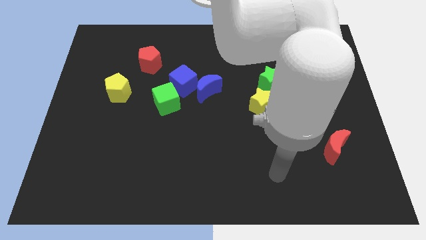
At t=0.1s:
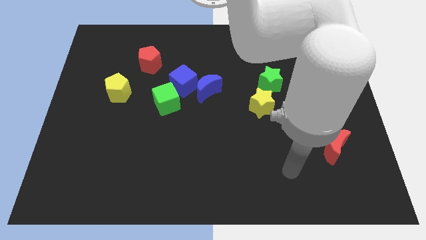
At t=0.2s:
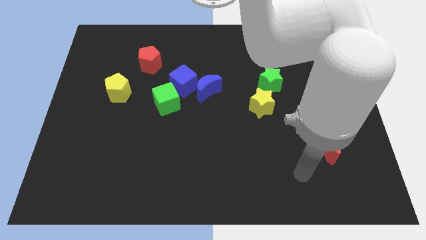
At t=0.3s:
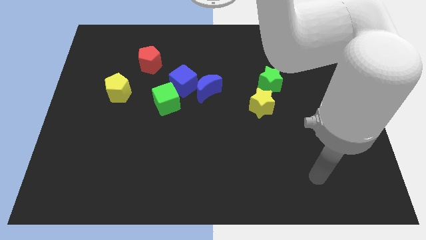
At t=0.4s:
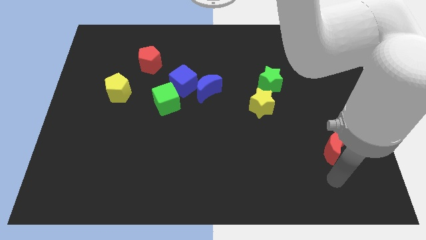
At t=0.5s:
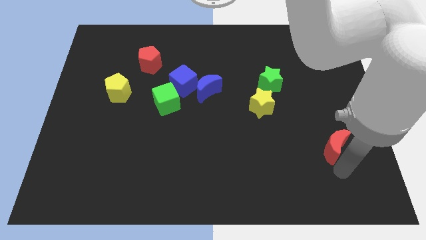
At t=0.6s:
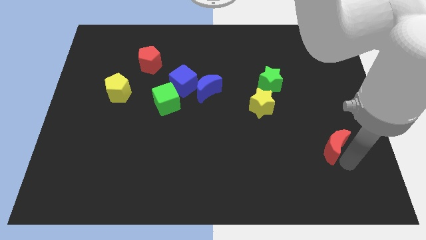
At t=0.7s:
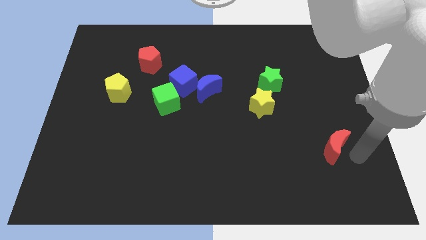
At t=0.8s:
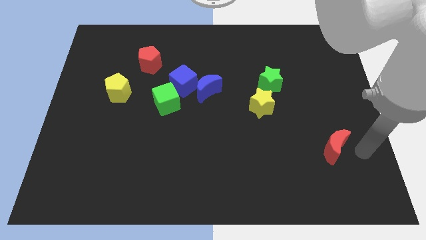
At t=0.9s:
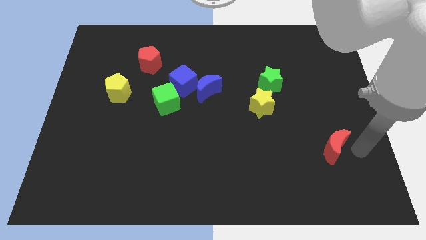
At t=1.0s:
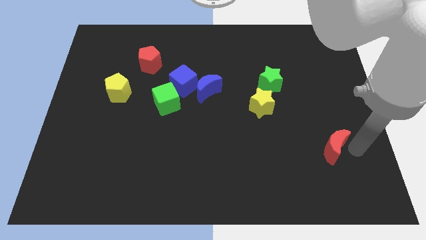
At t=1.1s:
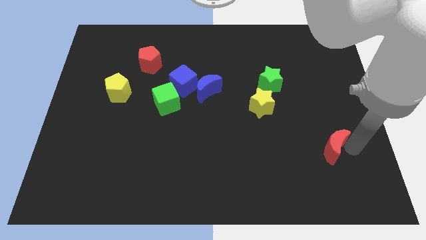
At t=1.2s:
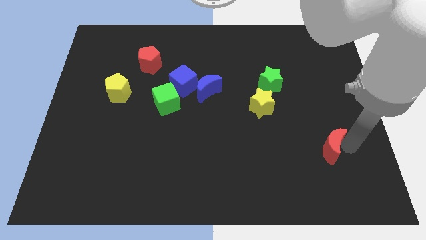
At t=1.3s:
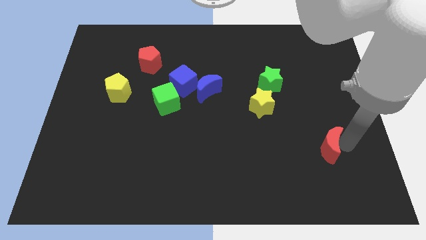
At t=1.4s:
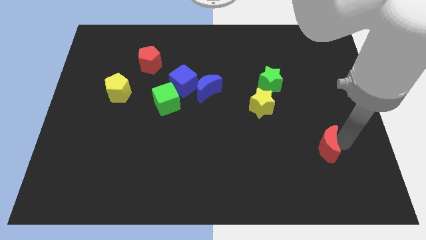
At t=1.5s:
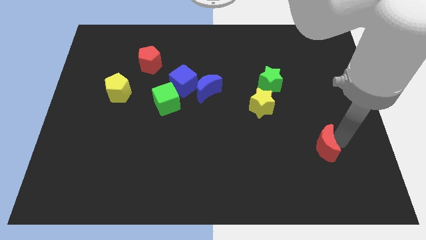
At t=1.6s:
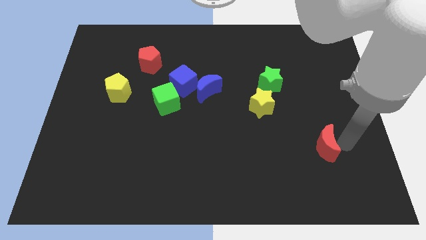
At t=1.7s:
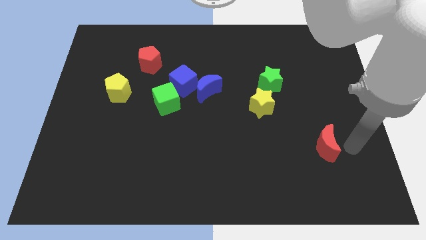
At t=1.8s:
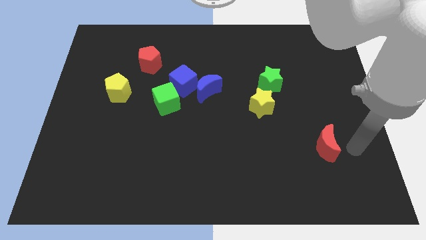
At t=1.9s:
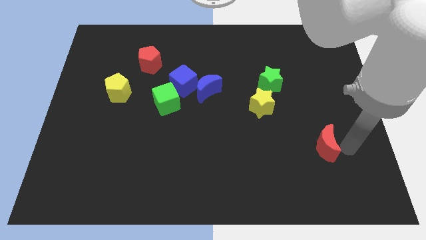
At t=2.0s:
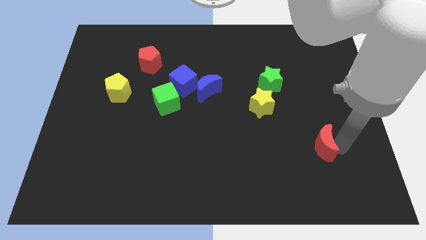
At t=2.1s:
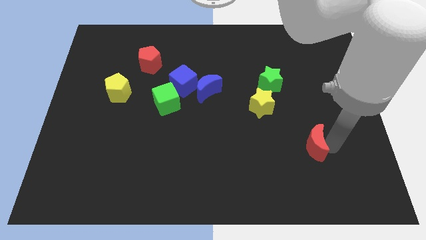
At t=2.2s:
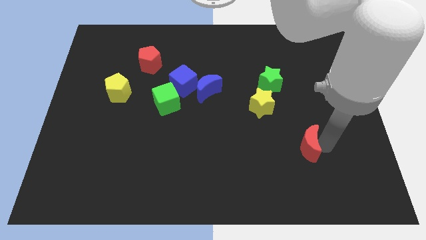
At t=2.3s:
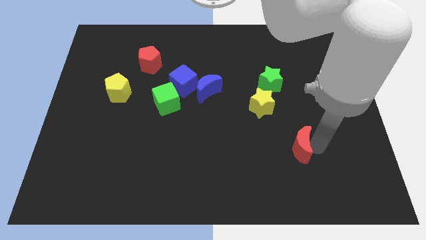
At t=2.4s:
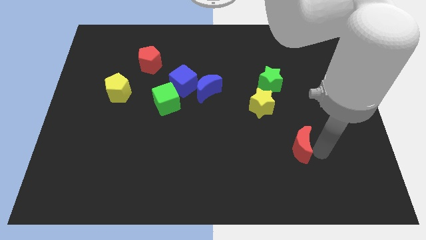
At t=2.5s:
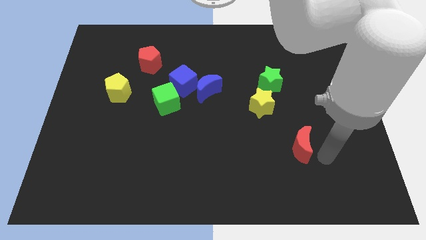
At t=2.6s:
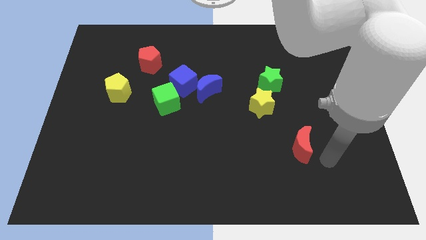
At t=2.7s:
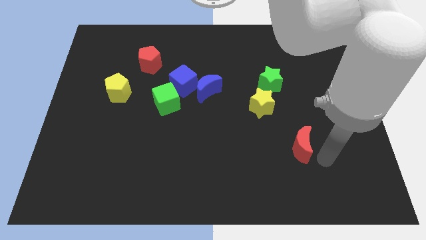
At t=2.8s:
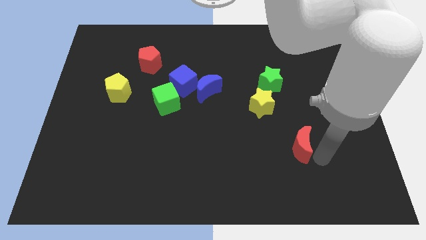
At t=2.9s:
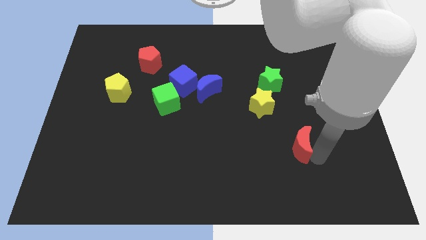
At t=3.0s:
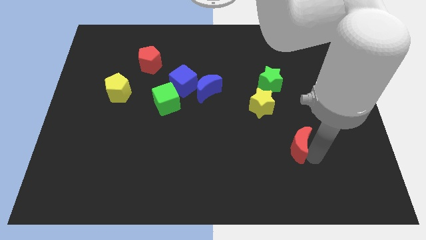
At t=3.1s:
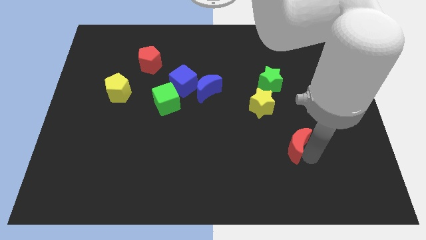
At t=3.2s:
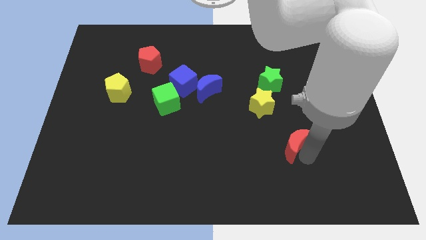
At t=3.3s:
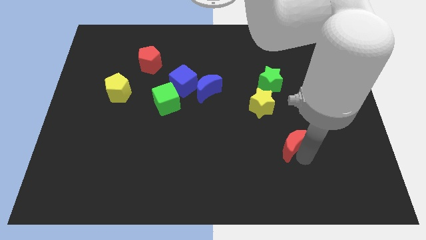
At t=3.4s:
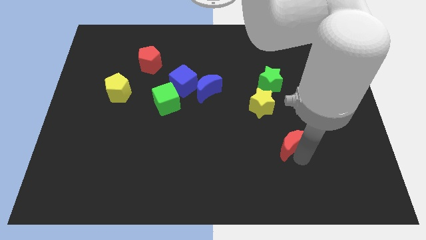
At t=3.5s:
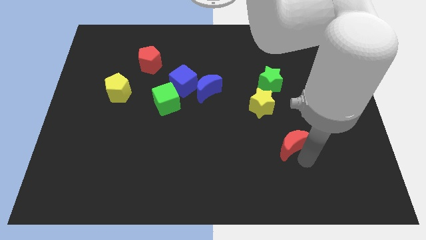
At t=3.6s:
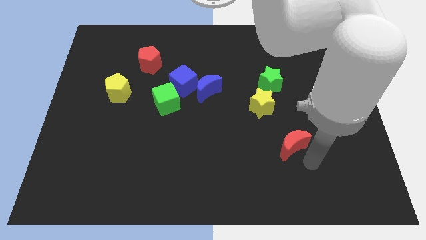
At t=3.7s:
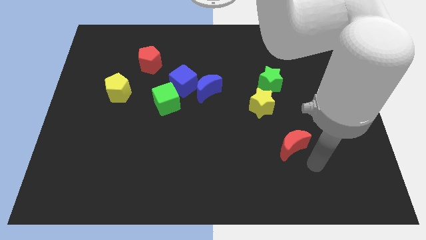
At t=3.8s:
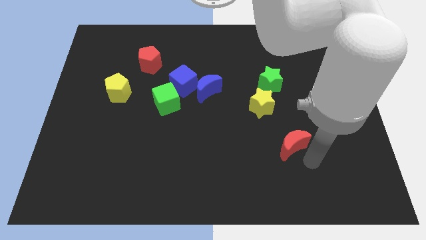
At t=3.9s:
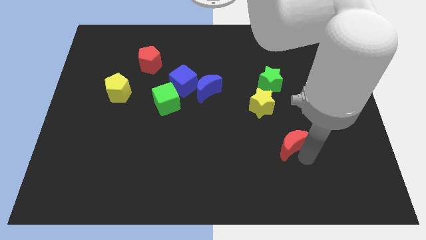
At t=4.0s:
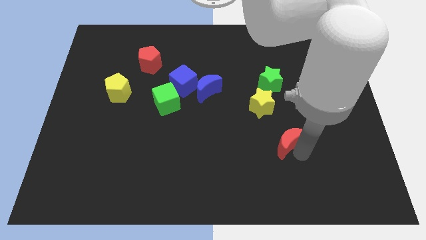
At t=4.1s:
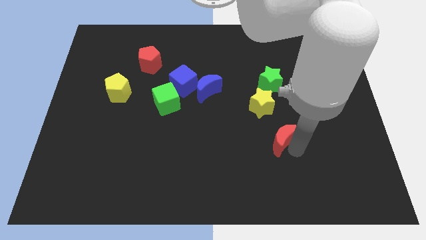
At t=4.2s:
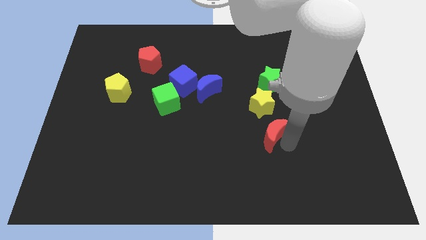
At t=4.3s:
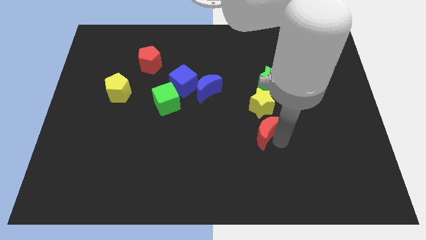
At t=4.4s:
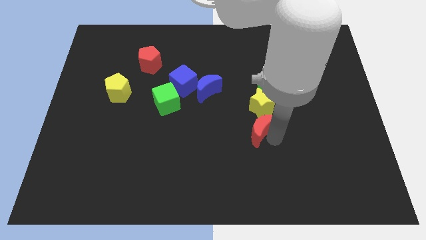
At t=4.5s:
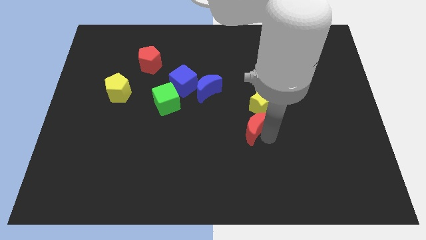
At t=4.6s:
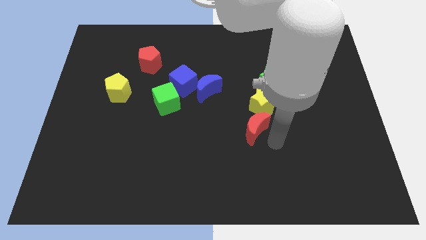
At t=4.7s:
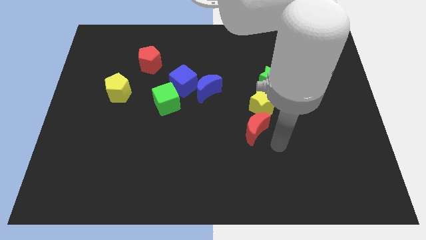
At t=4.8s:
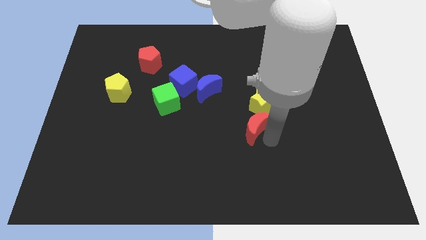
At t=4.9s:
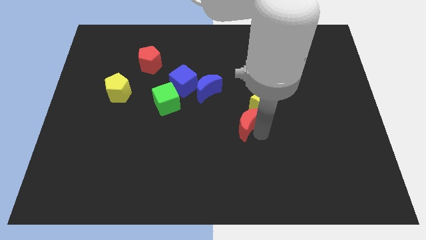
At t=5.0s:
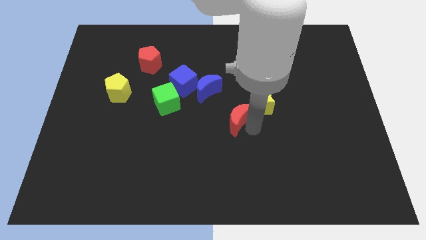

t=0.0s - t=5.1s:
move the red moon to the left of the yellow star

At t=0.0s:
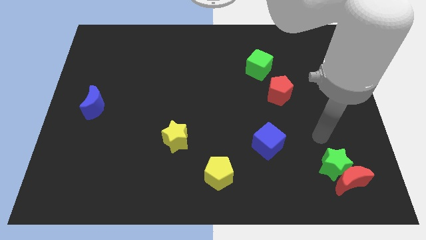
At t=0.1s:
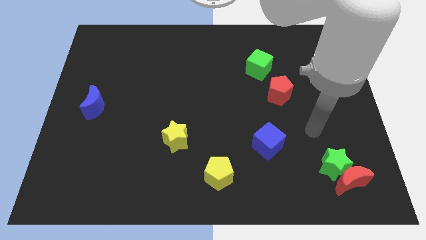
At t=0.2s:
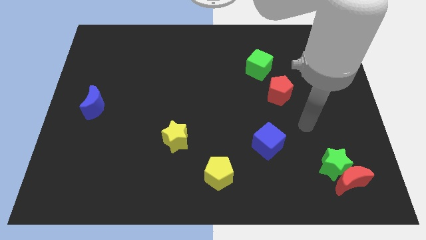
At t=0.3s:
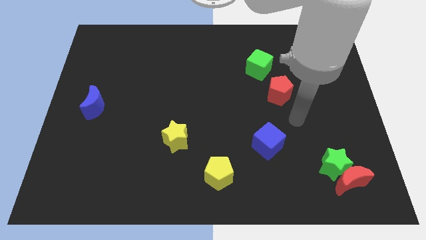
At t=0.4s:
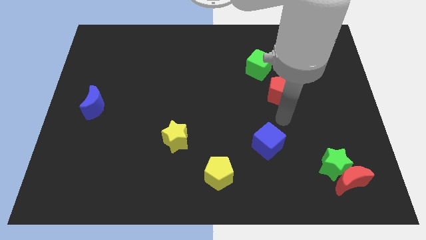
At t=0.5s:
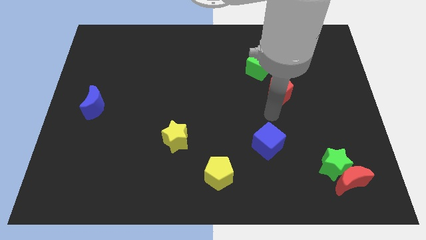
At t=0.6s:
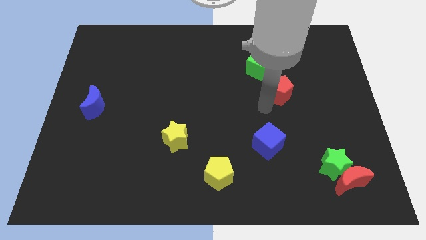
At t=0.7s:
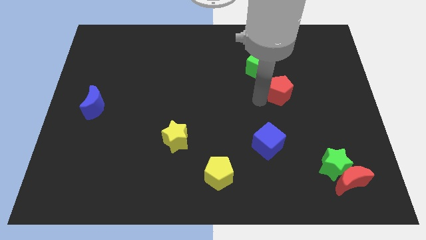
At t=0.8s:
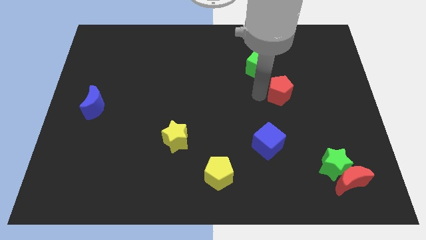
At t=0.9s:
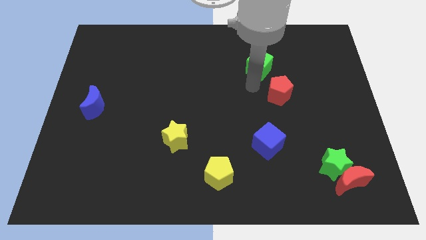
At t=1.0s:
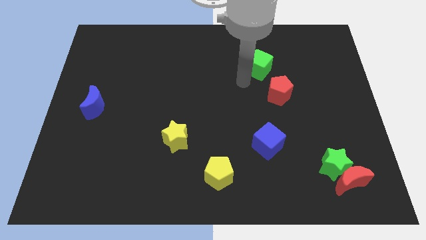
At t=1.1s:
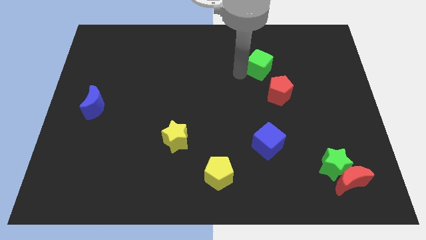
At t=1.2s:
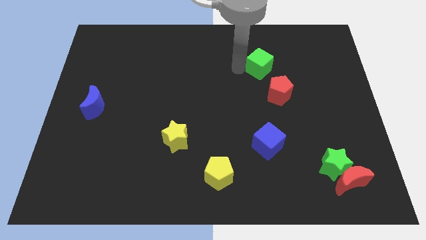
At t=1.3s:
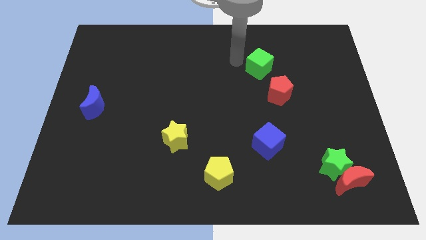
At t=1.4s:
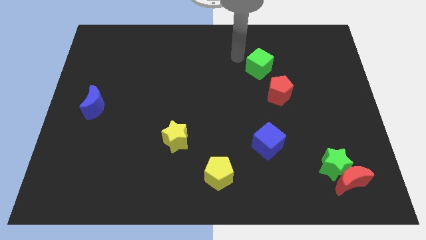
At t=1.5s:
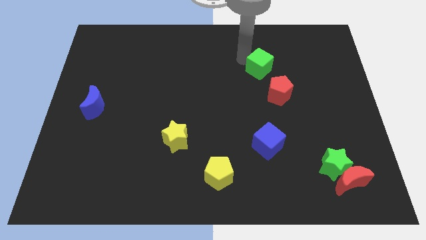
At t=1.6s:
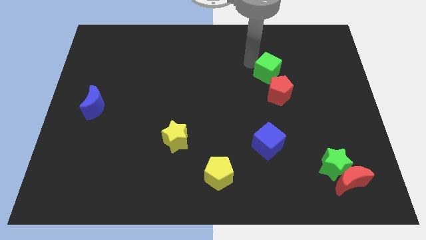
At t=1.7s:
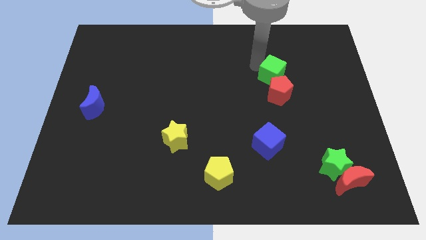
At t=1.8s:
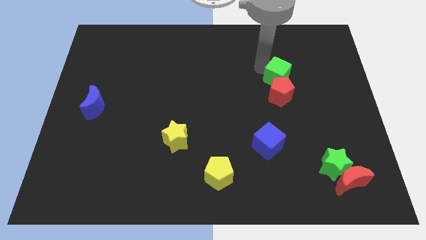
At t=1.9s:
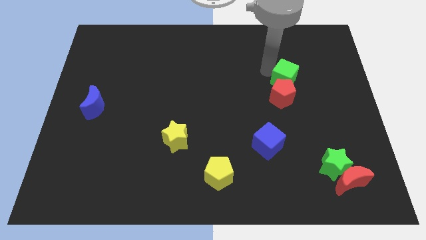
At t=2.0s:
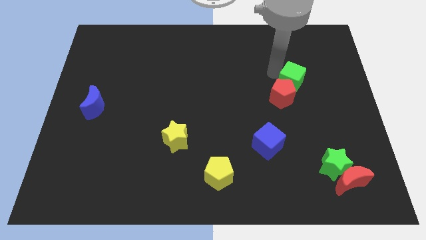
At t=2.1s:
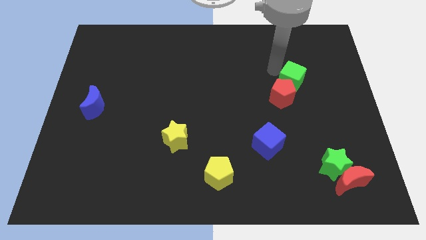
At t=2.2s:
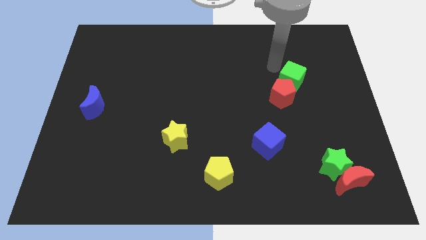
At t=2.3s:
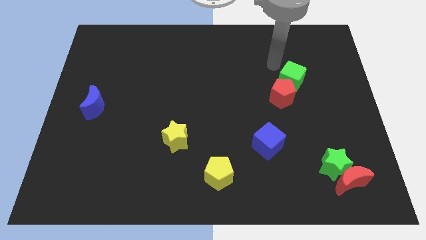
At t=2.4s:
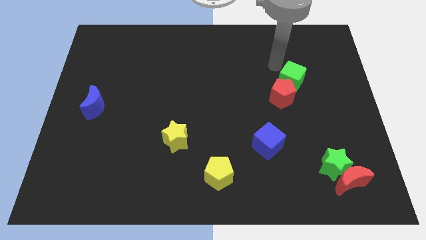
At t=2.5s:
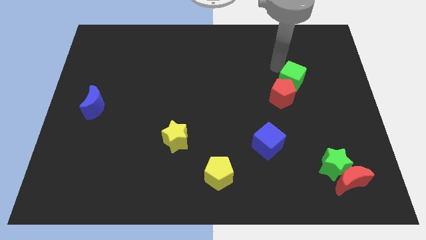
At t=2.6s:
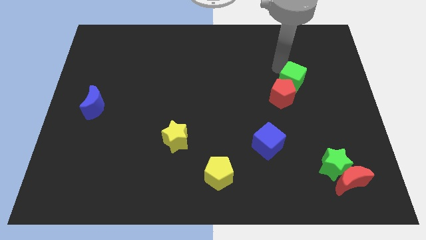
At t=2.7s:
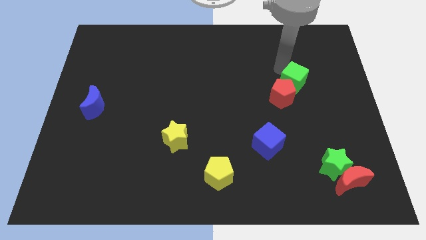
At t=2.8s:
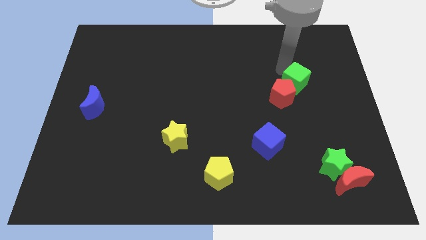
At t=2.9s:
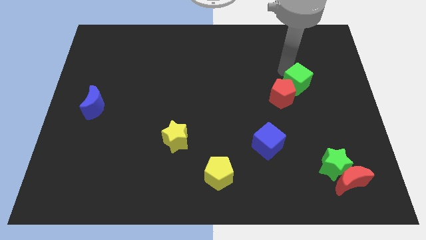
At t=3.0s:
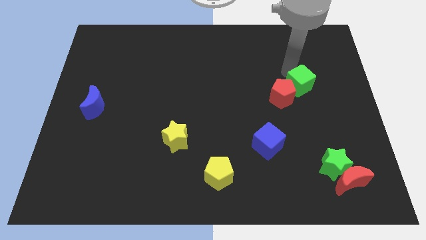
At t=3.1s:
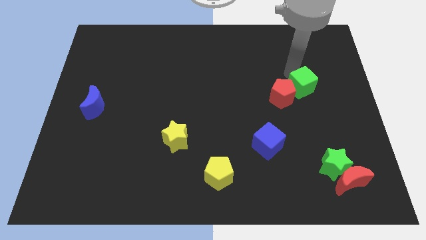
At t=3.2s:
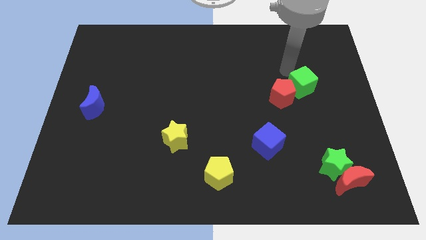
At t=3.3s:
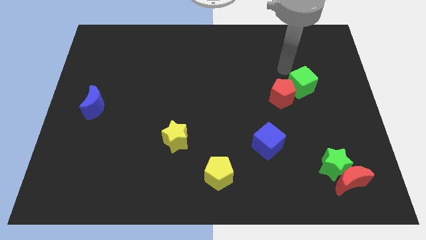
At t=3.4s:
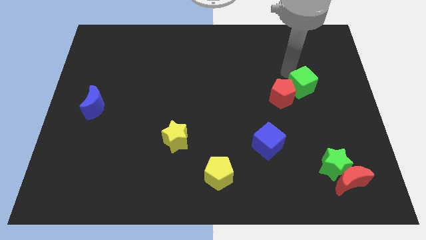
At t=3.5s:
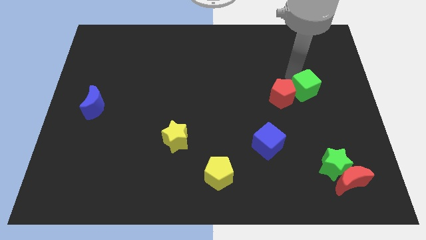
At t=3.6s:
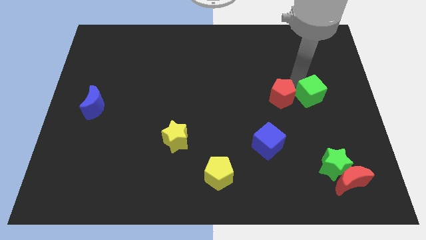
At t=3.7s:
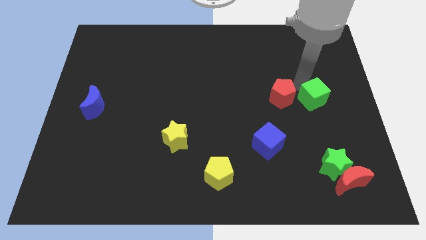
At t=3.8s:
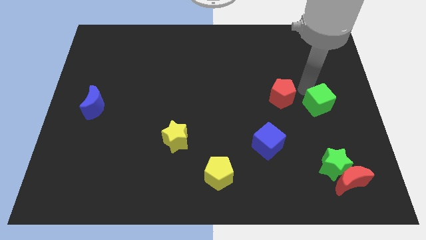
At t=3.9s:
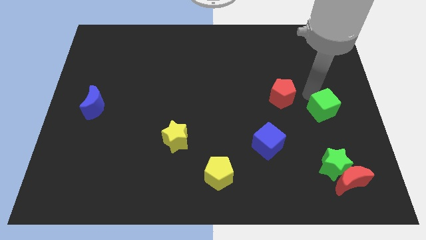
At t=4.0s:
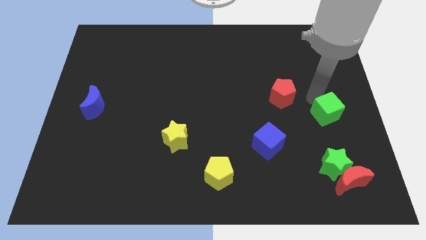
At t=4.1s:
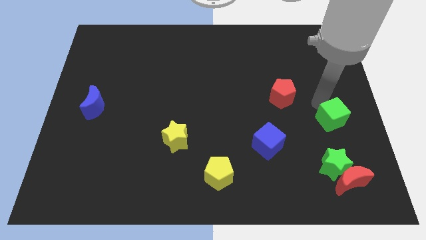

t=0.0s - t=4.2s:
push the green cube above the red moon
